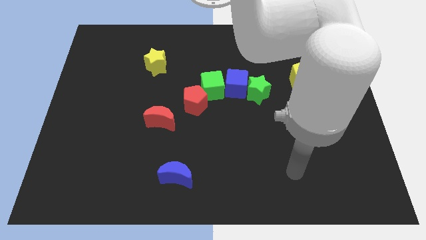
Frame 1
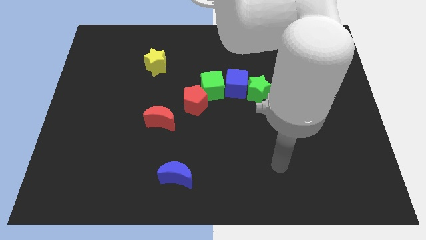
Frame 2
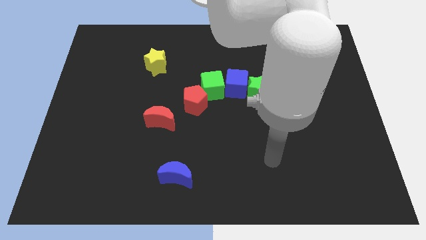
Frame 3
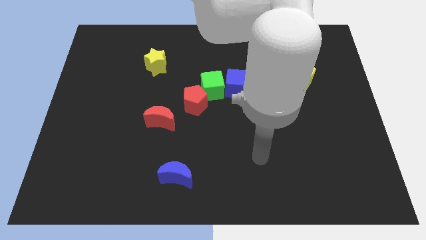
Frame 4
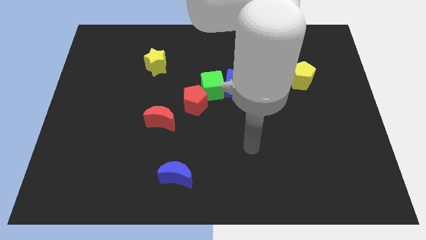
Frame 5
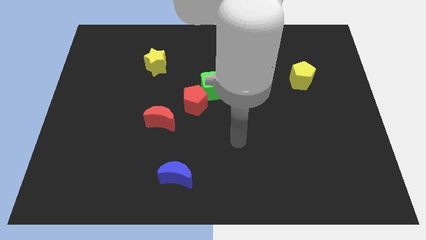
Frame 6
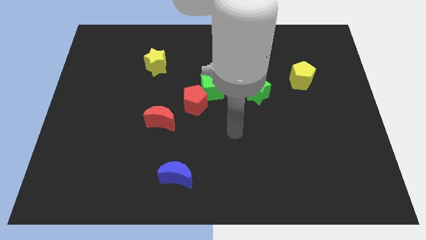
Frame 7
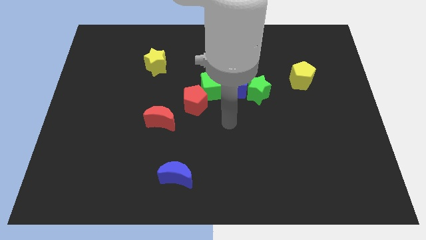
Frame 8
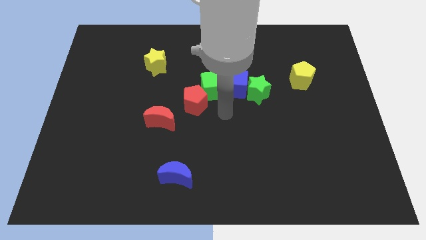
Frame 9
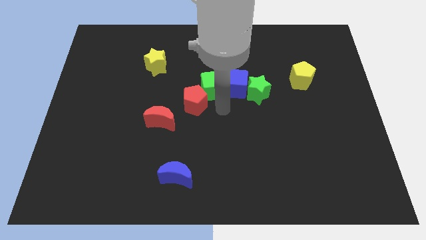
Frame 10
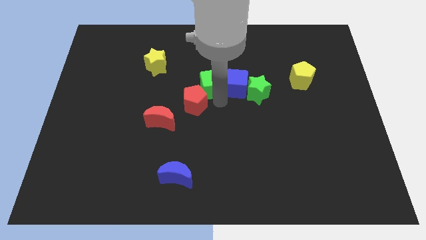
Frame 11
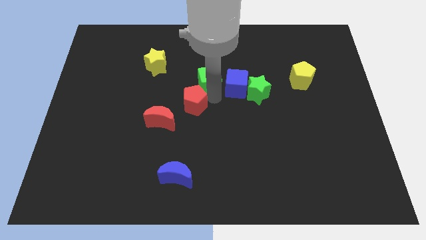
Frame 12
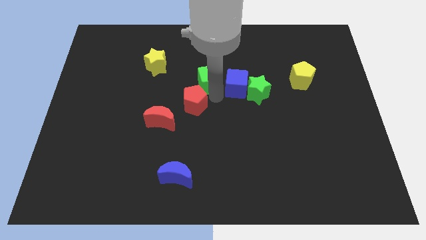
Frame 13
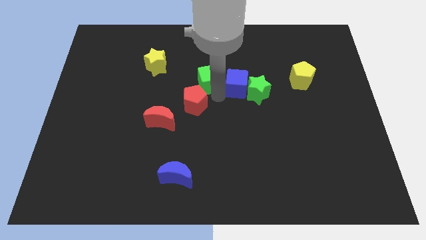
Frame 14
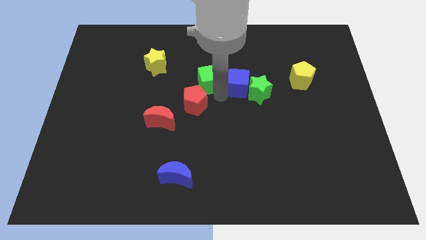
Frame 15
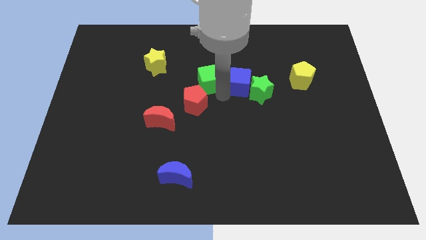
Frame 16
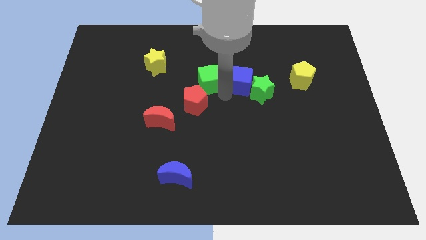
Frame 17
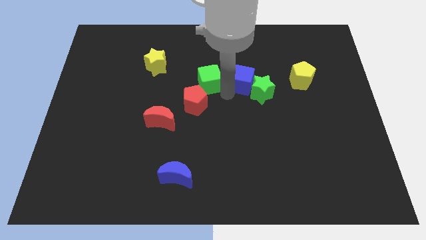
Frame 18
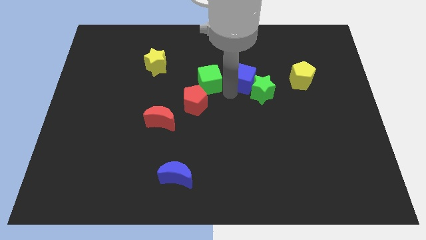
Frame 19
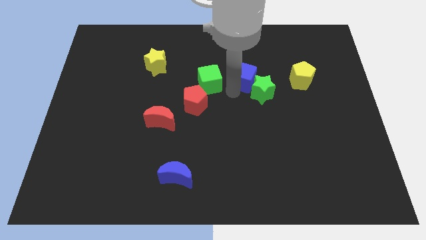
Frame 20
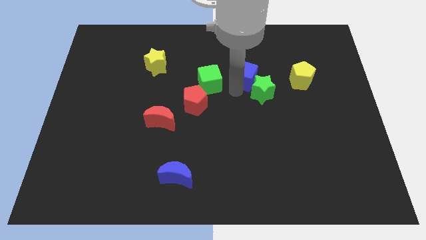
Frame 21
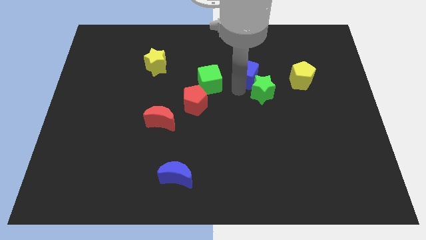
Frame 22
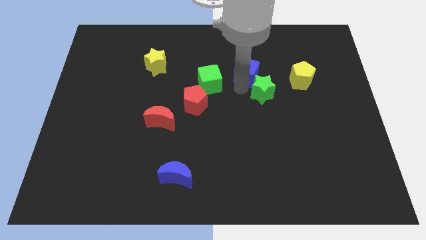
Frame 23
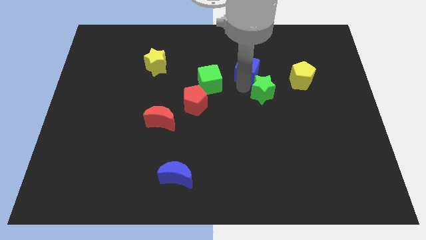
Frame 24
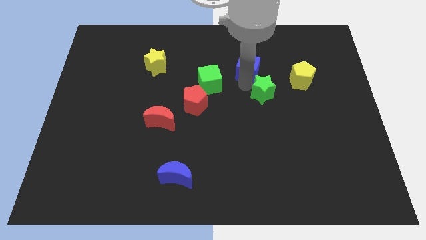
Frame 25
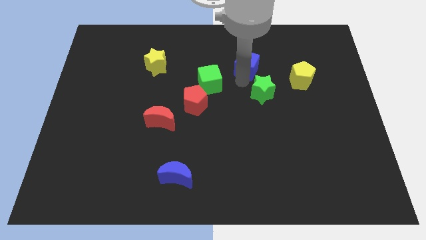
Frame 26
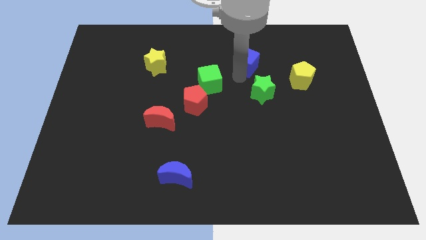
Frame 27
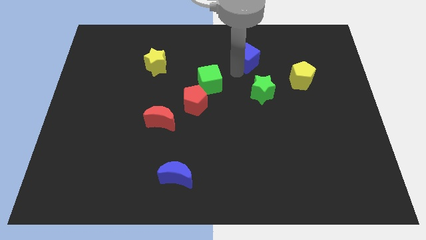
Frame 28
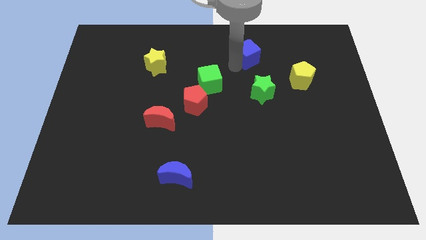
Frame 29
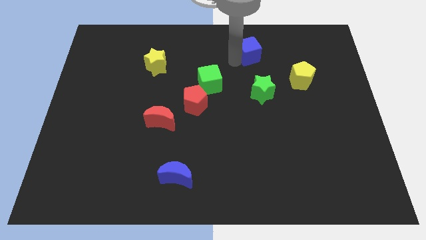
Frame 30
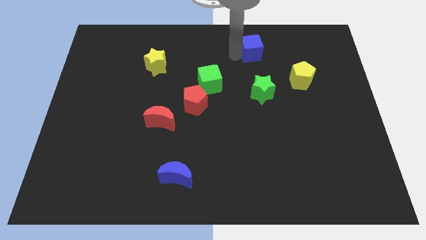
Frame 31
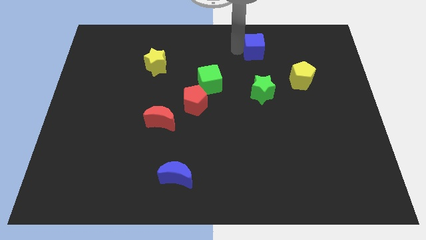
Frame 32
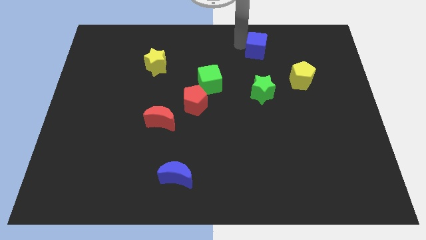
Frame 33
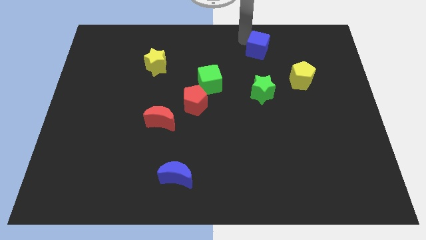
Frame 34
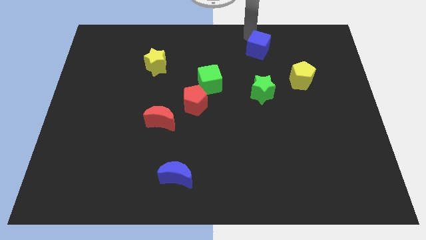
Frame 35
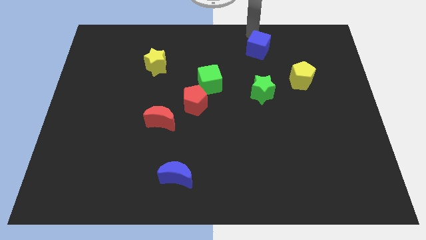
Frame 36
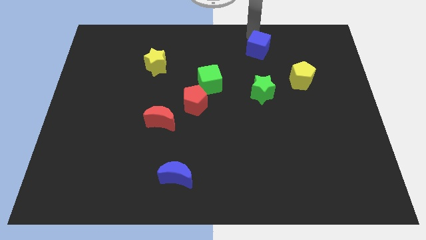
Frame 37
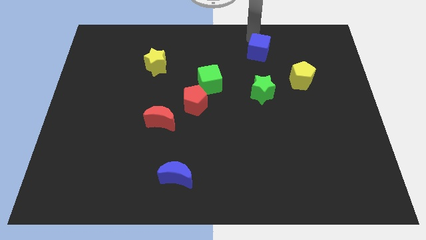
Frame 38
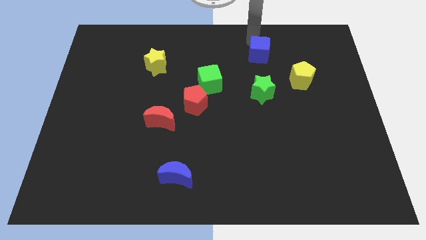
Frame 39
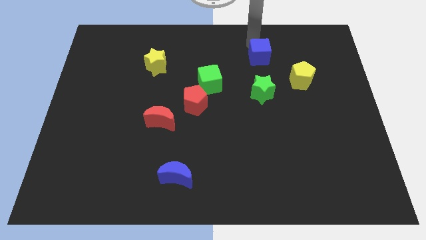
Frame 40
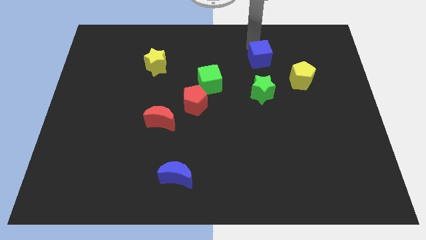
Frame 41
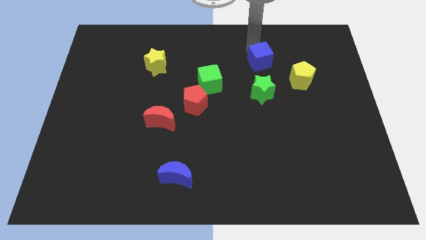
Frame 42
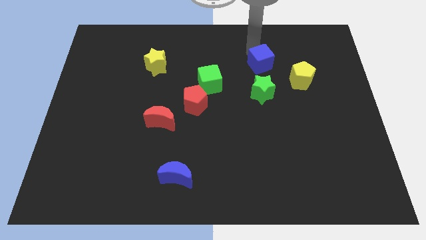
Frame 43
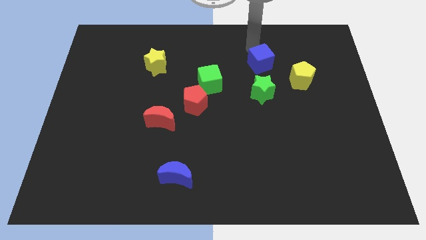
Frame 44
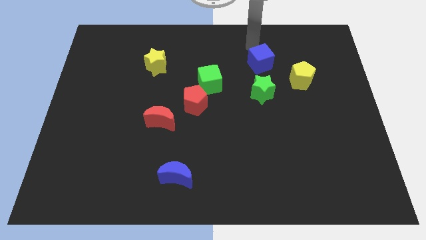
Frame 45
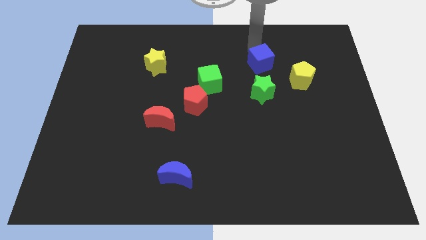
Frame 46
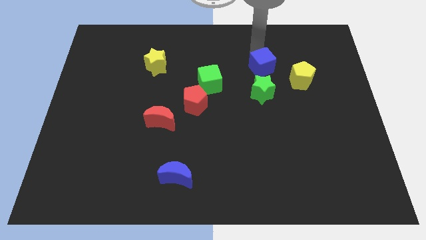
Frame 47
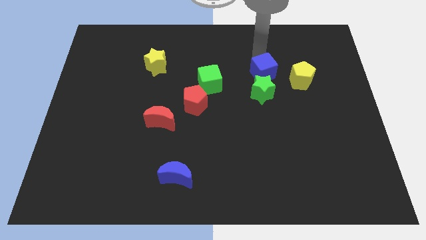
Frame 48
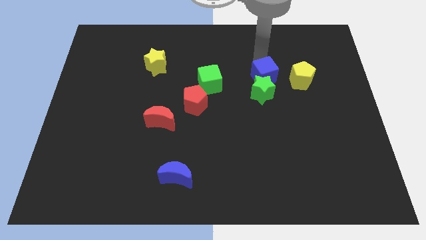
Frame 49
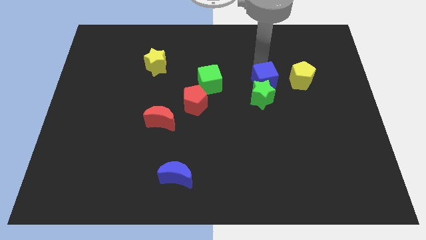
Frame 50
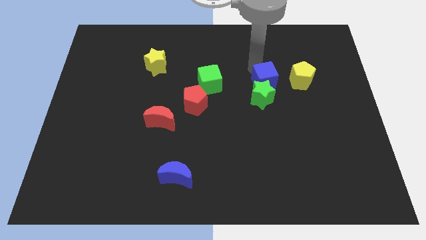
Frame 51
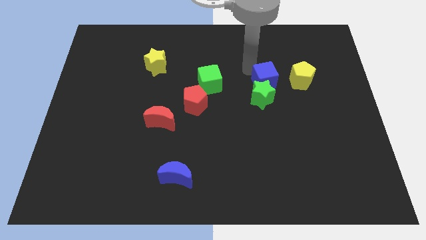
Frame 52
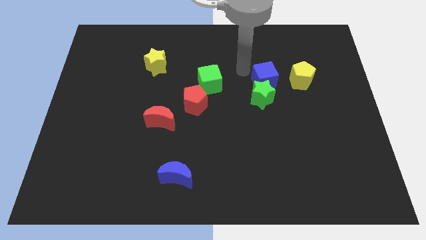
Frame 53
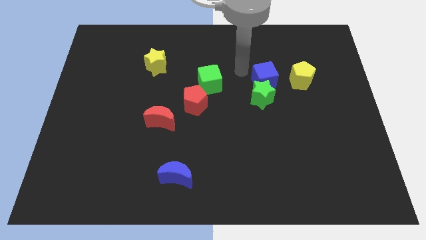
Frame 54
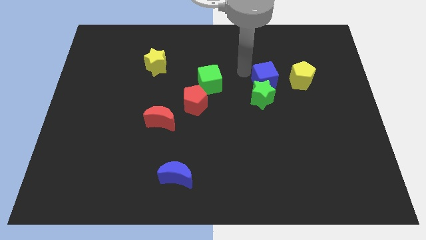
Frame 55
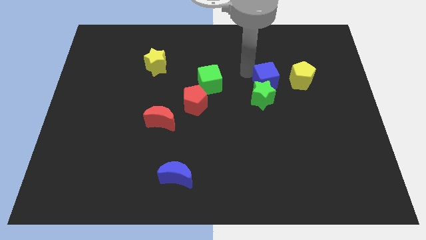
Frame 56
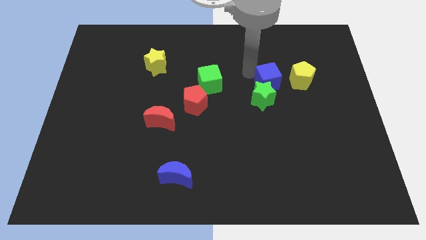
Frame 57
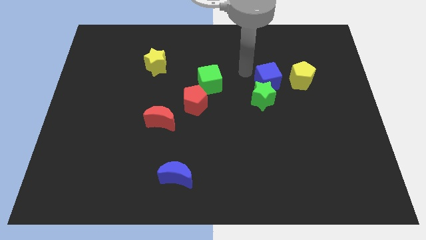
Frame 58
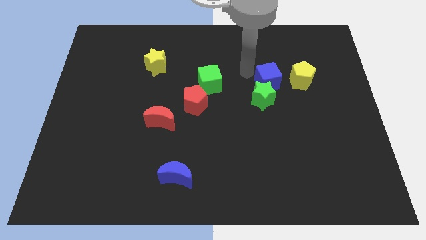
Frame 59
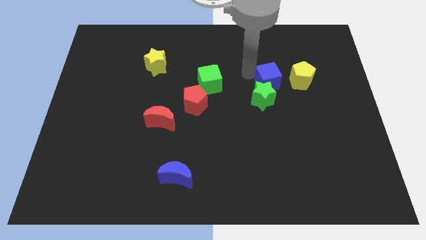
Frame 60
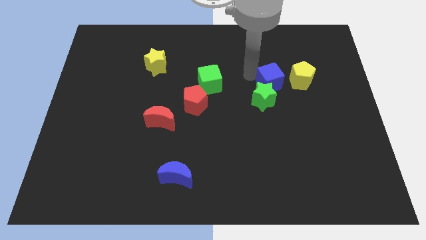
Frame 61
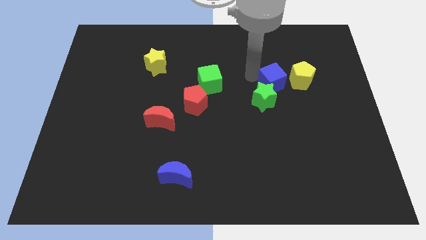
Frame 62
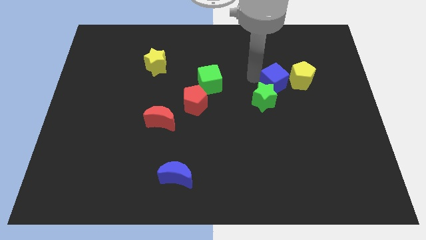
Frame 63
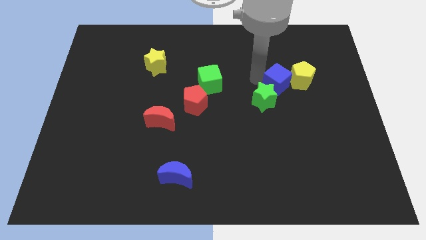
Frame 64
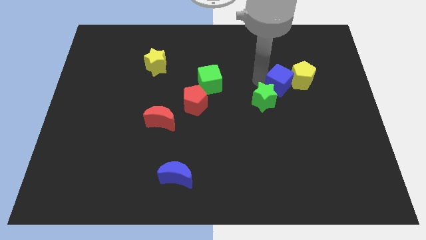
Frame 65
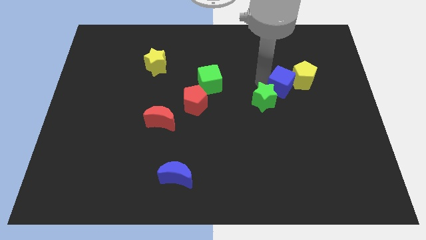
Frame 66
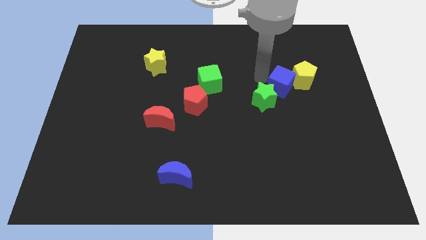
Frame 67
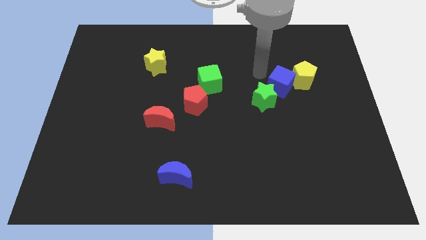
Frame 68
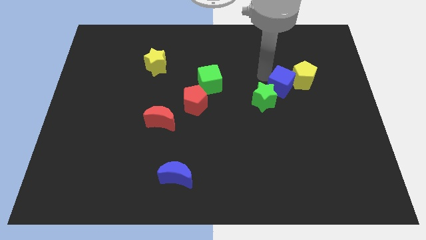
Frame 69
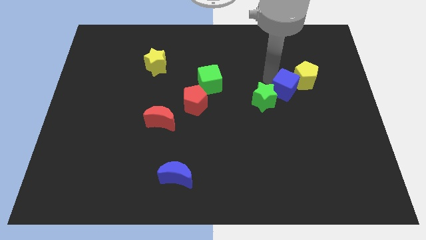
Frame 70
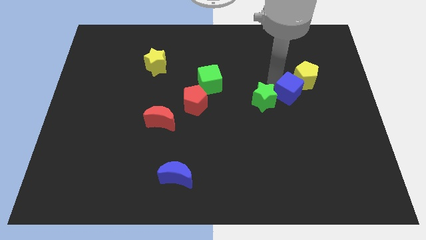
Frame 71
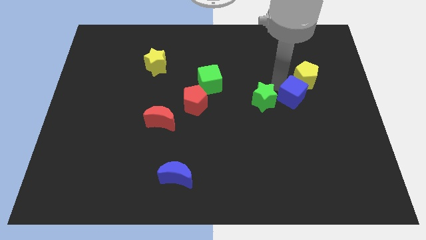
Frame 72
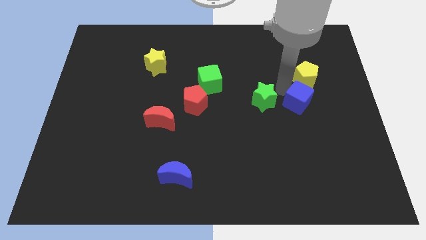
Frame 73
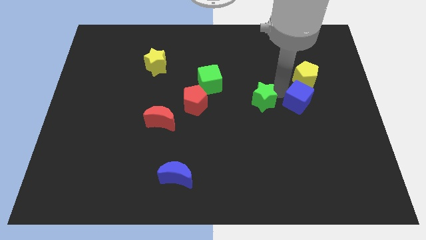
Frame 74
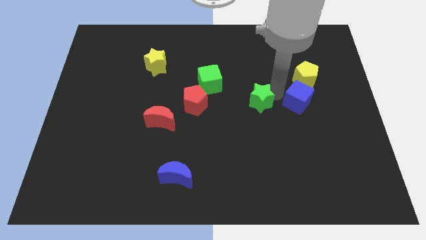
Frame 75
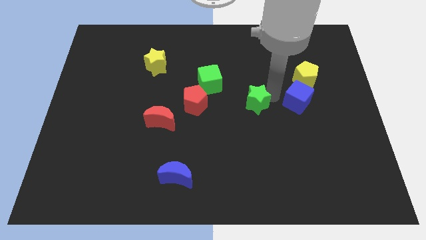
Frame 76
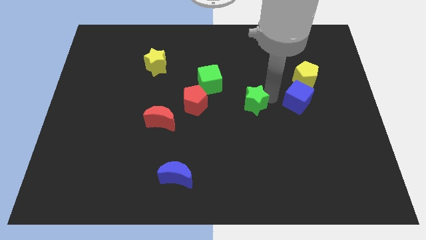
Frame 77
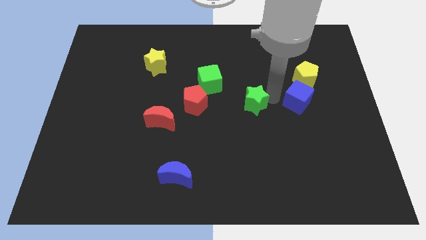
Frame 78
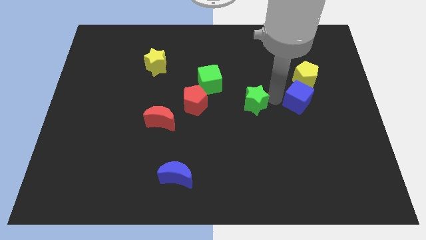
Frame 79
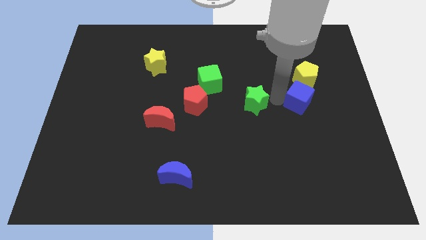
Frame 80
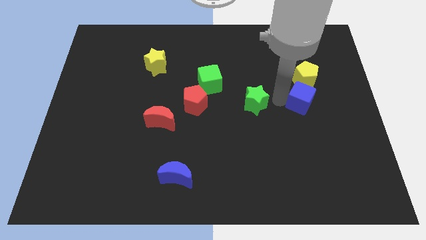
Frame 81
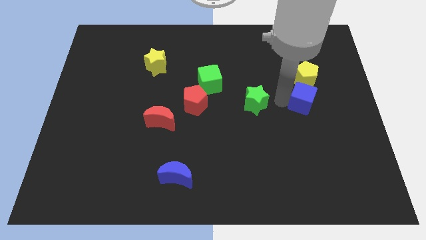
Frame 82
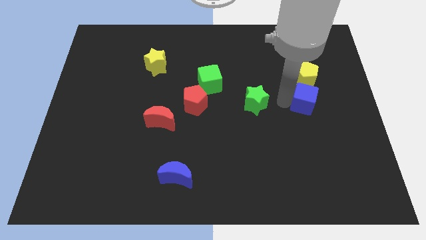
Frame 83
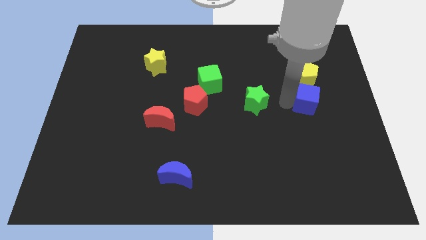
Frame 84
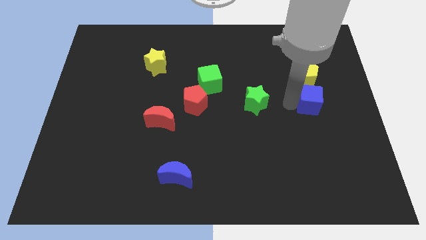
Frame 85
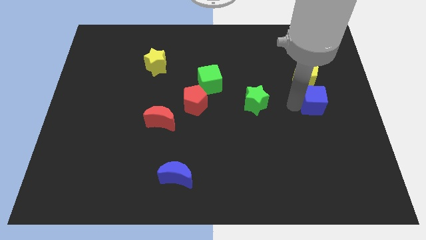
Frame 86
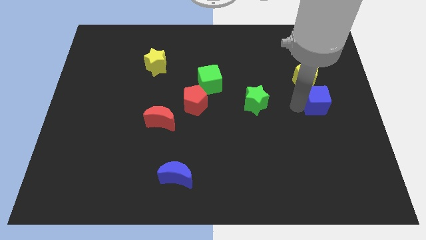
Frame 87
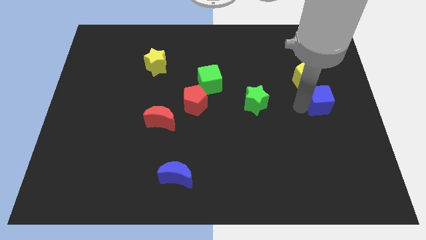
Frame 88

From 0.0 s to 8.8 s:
move the blue cube to the right side of the board
